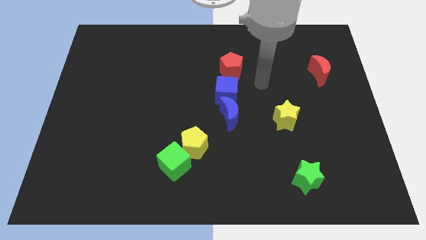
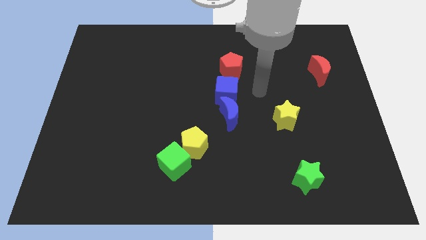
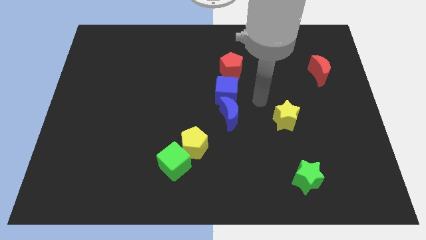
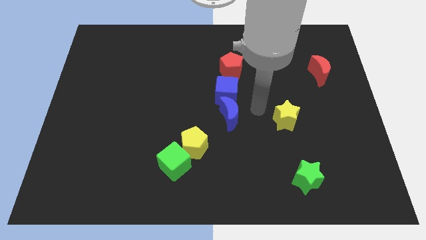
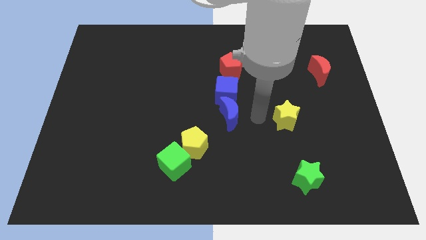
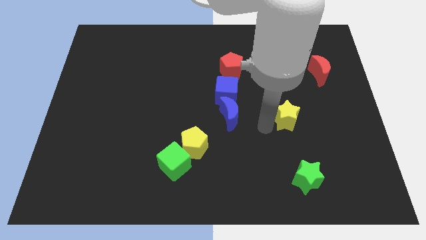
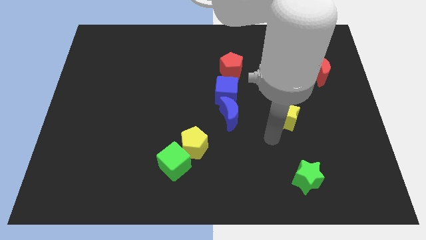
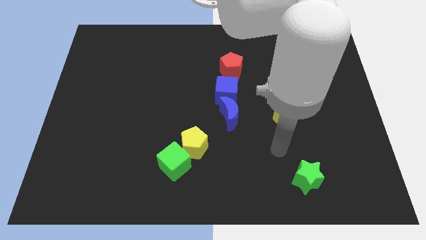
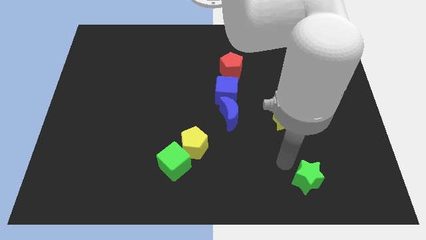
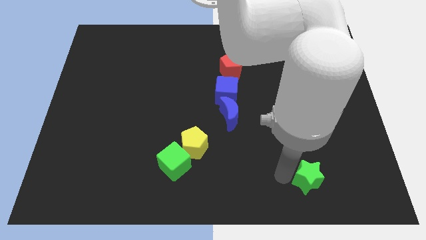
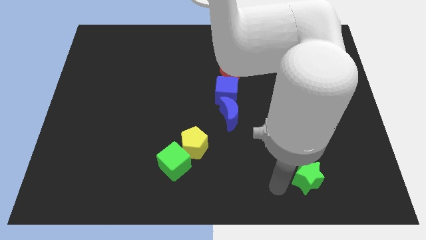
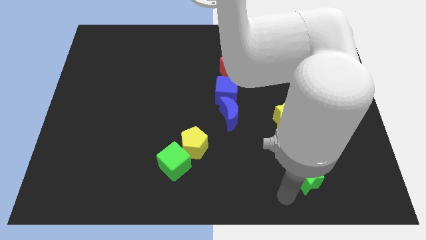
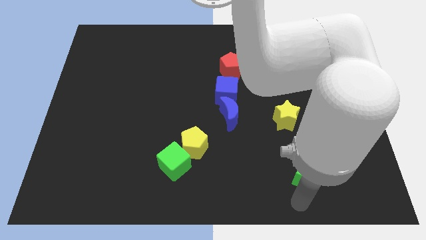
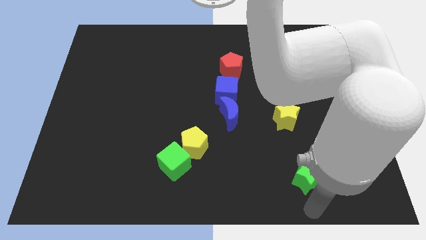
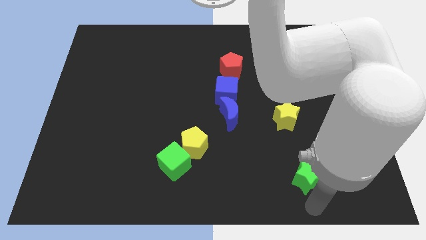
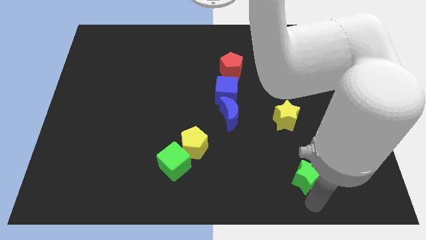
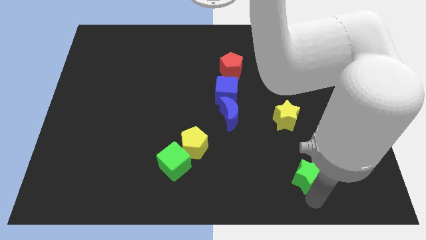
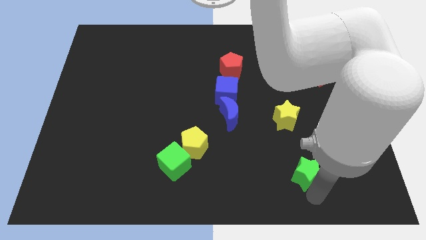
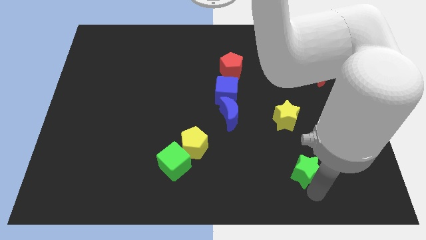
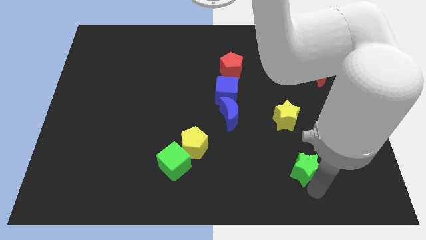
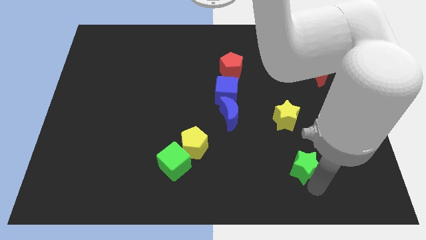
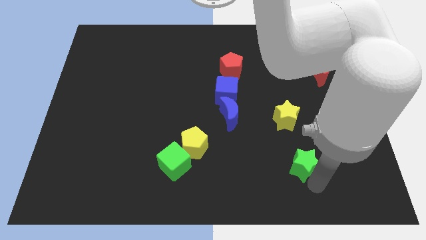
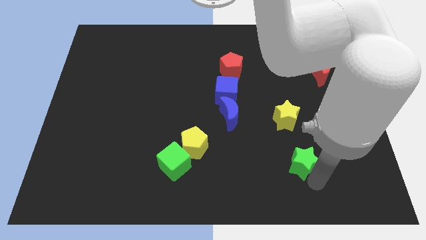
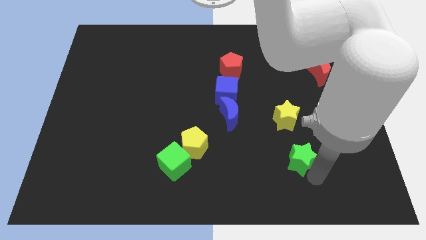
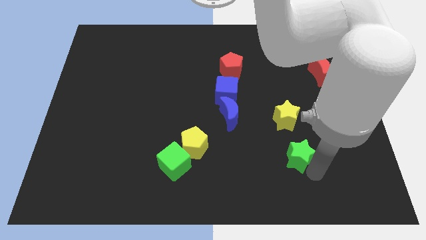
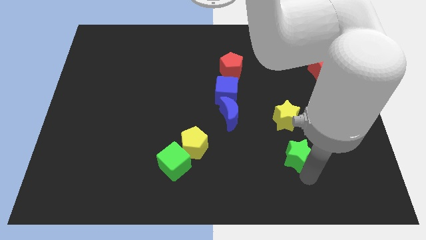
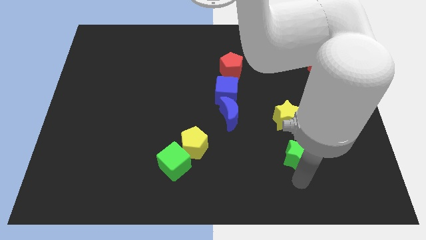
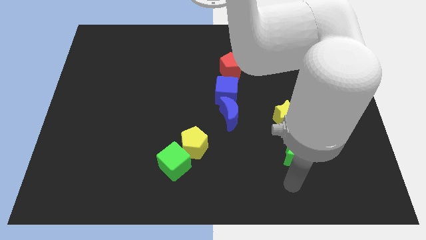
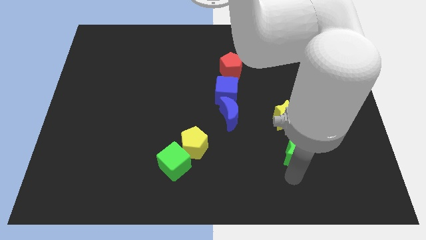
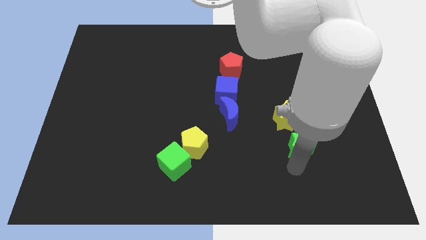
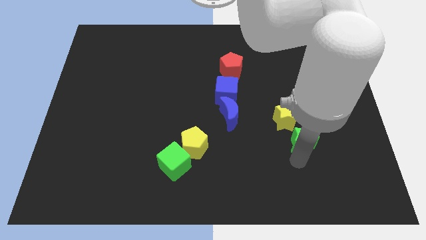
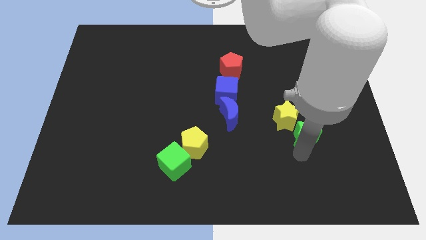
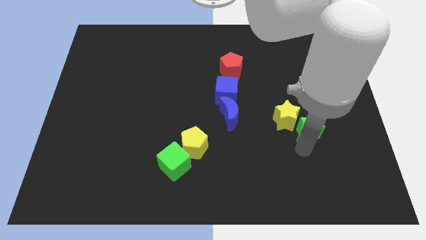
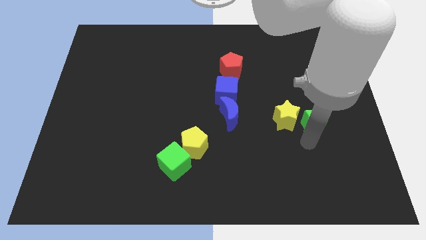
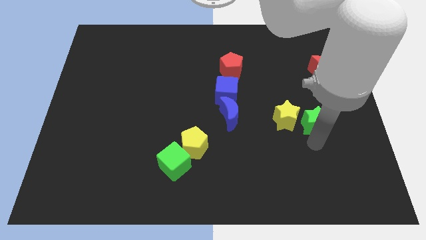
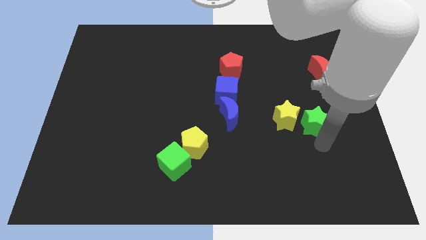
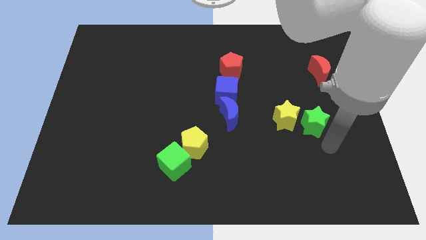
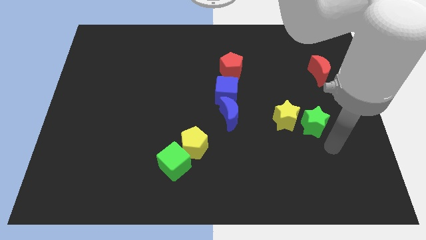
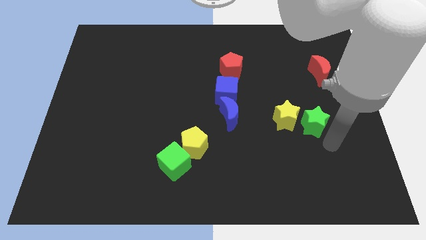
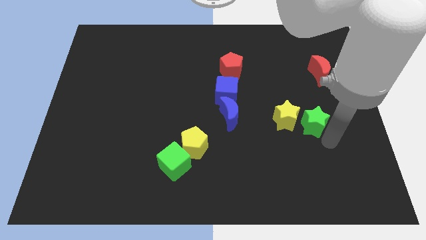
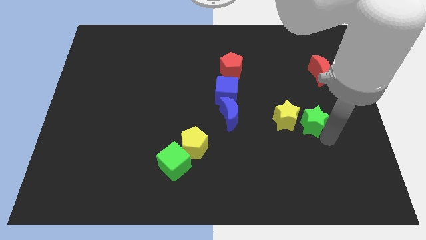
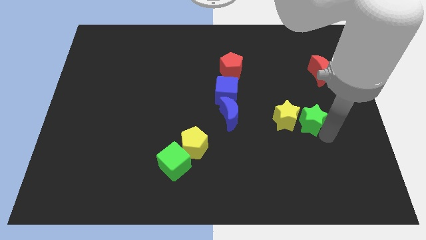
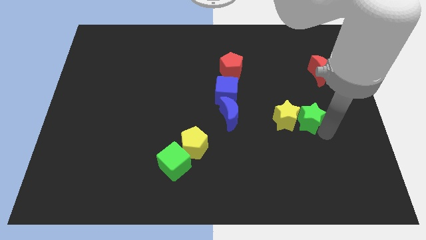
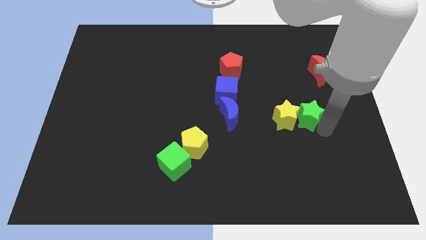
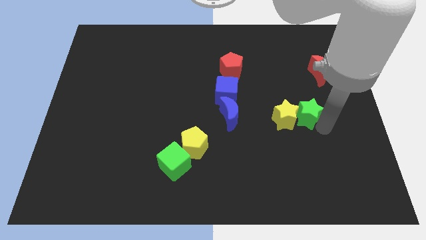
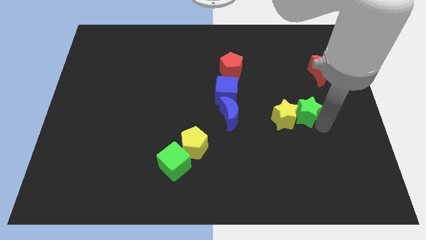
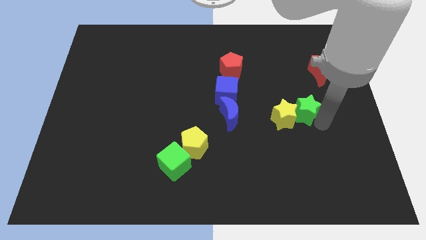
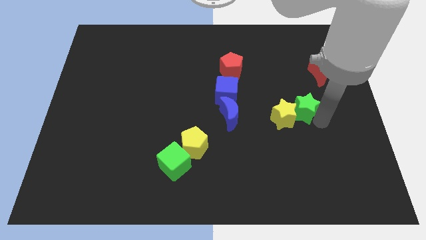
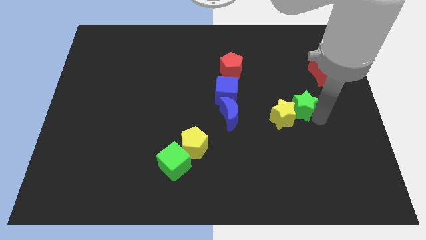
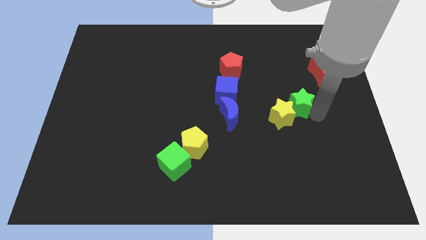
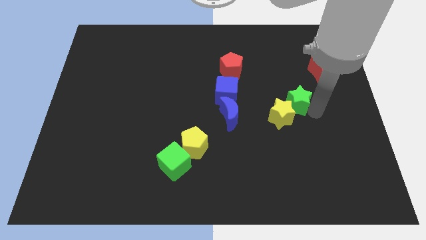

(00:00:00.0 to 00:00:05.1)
push the green star above the yellow star

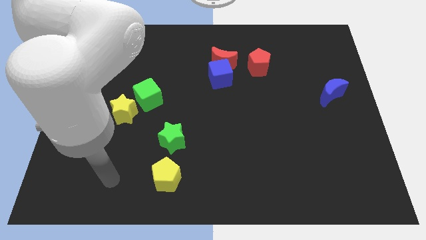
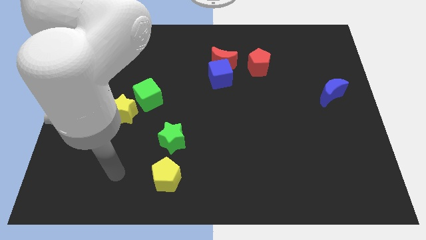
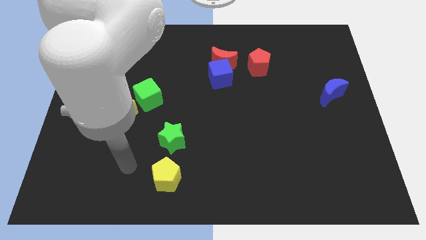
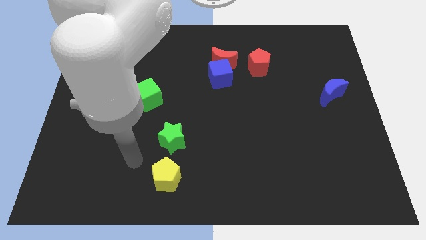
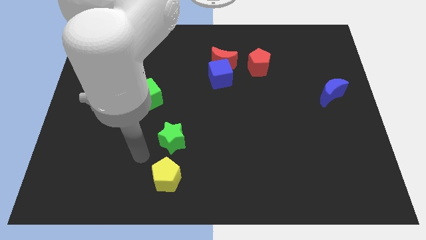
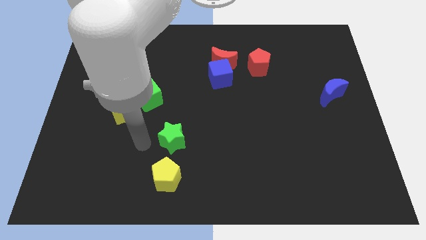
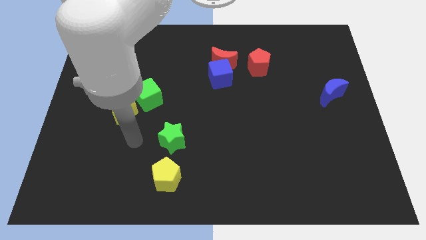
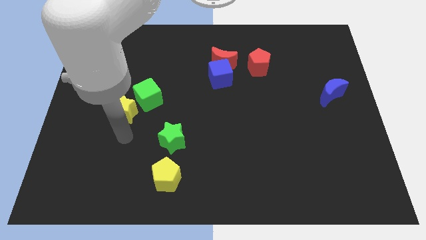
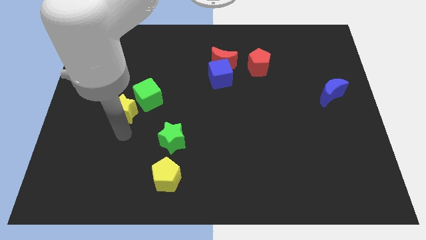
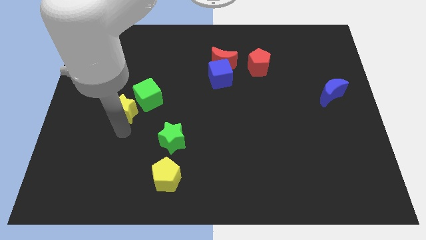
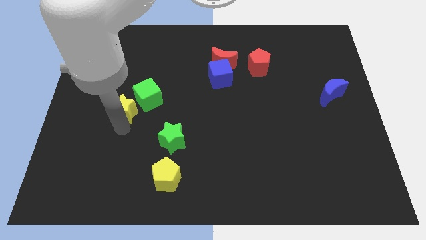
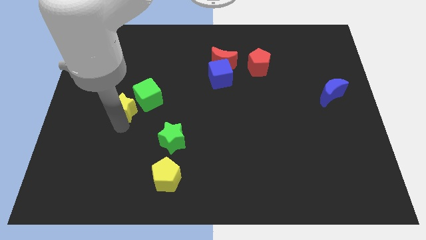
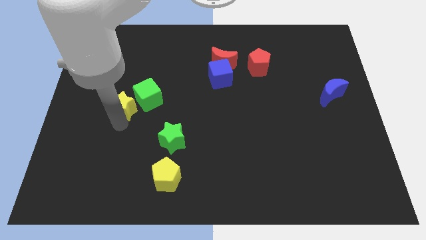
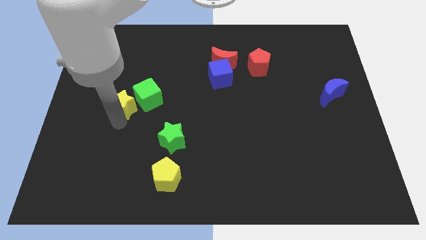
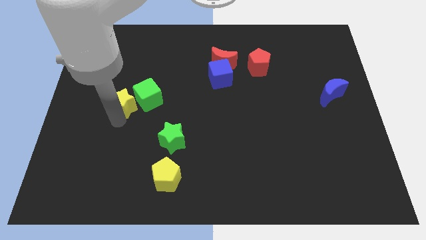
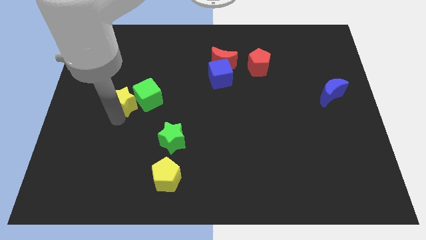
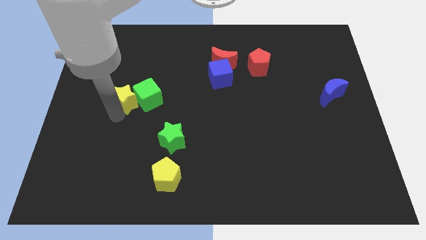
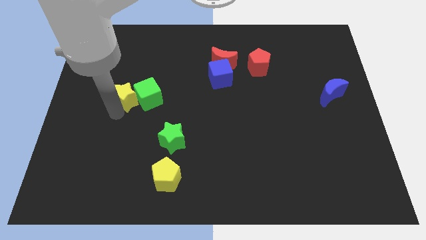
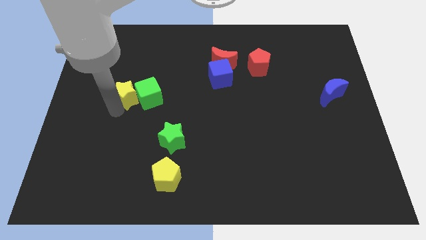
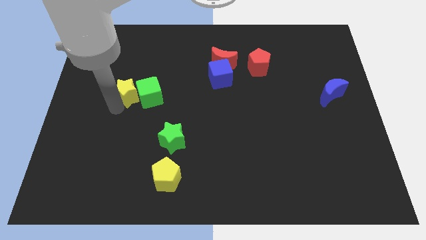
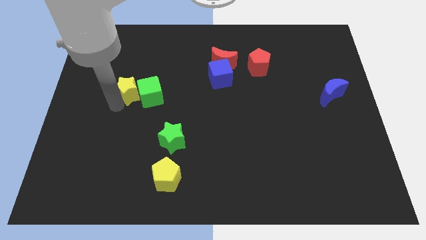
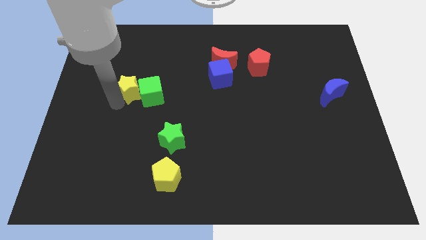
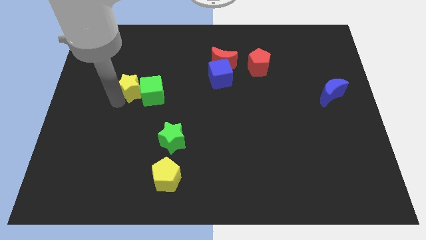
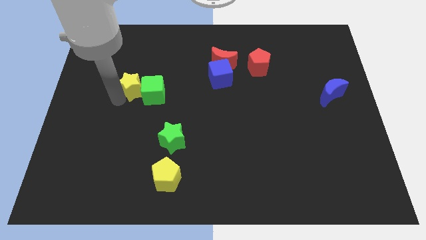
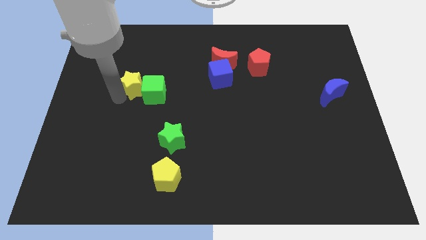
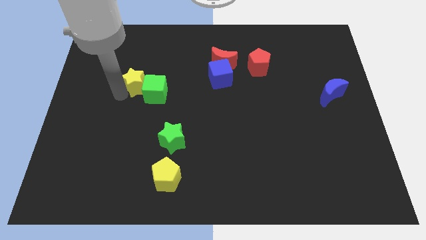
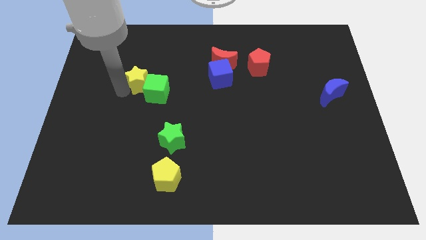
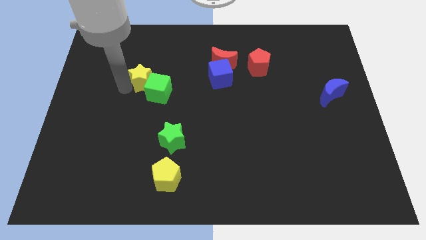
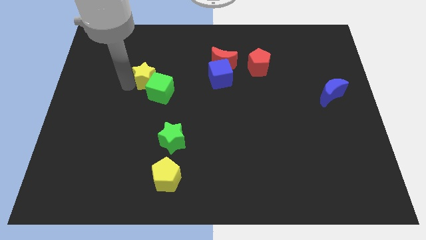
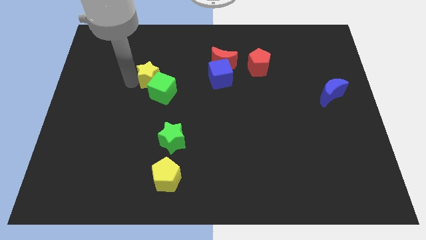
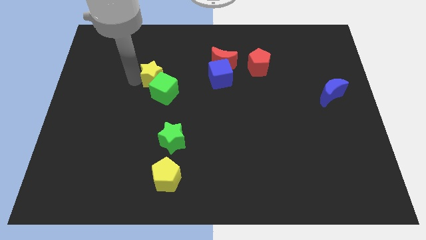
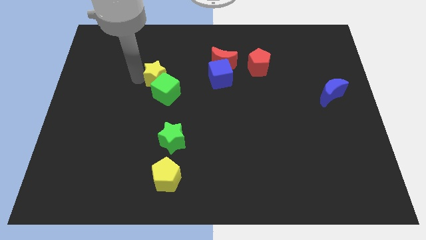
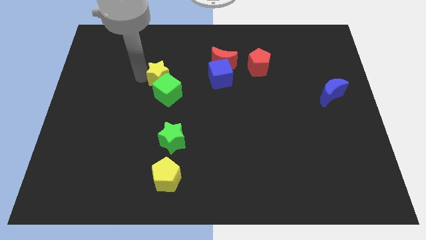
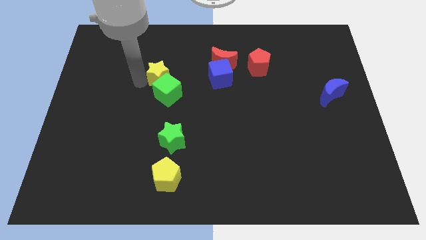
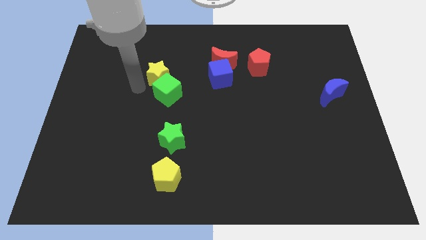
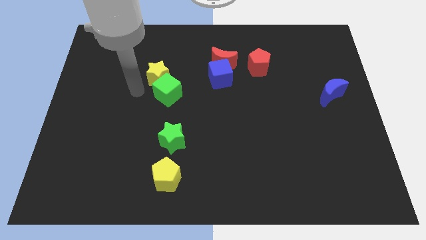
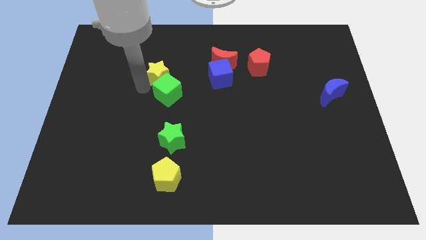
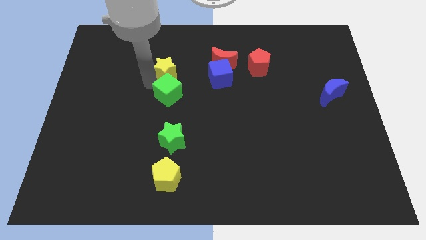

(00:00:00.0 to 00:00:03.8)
move the yellow star to the left side of the red moon
